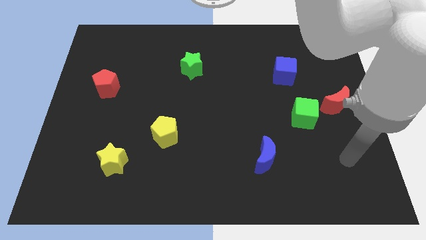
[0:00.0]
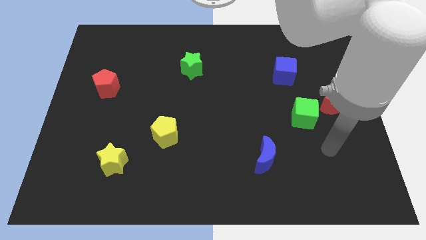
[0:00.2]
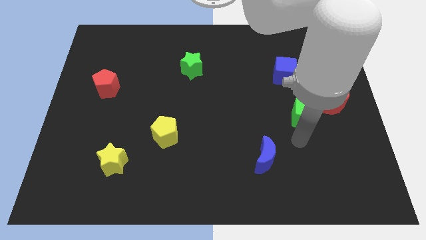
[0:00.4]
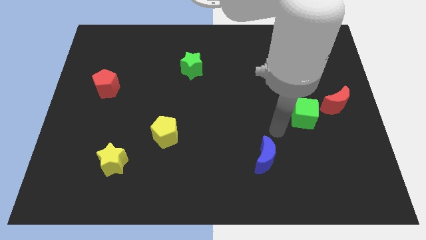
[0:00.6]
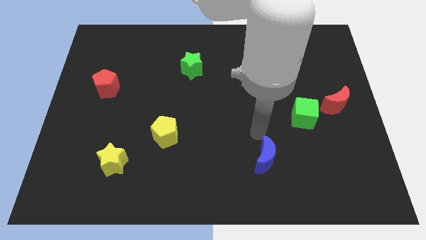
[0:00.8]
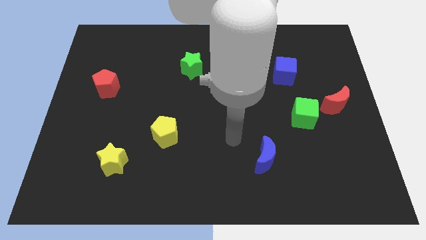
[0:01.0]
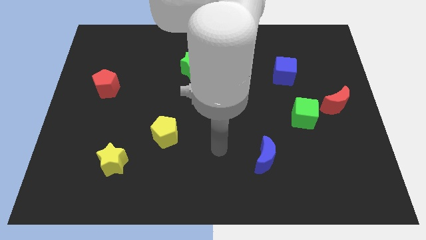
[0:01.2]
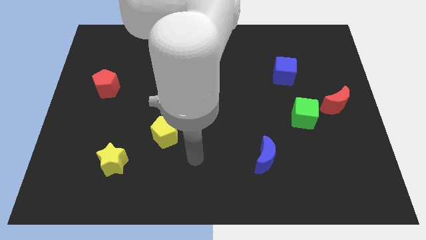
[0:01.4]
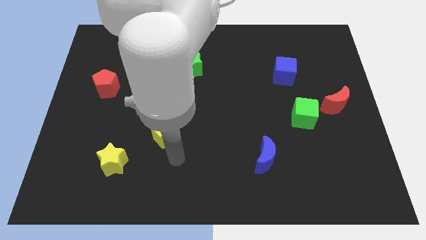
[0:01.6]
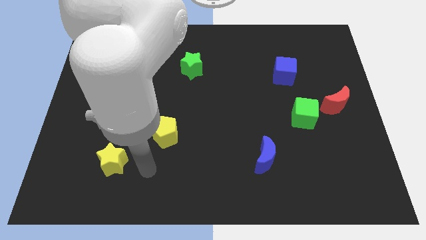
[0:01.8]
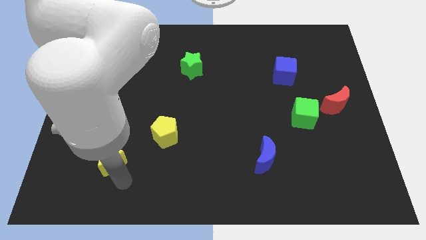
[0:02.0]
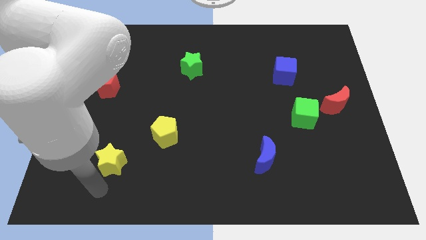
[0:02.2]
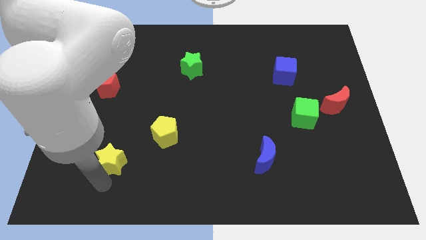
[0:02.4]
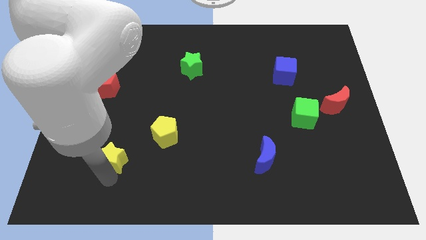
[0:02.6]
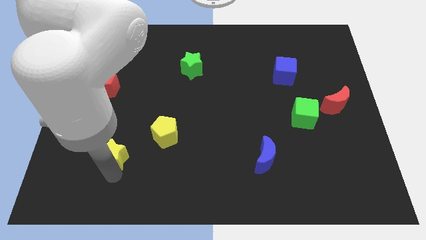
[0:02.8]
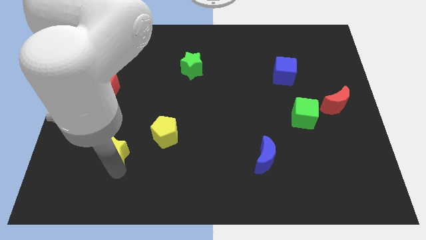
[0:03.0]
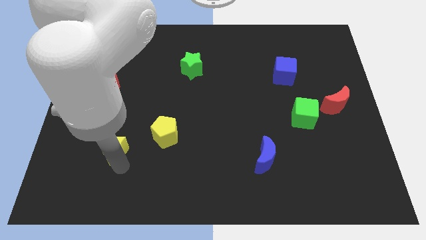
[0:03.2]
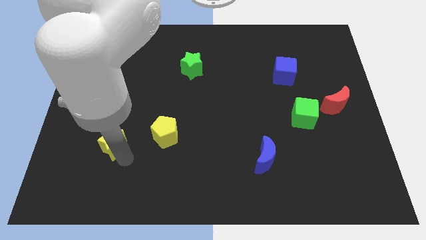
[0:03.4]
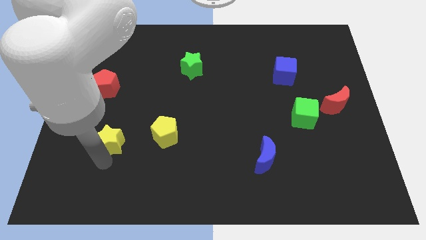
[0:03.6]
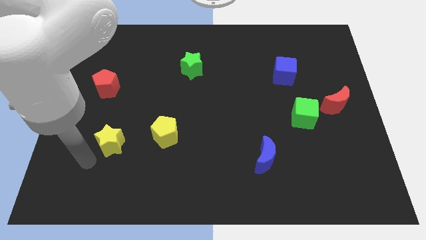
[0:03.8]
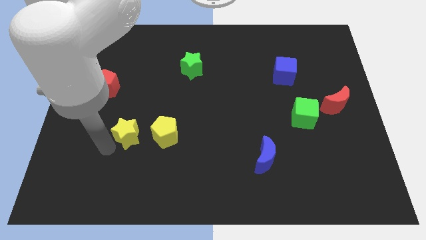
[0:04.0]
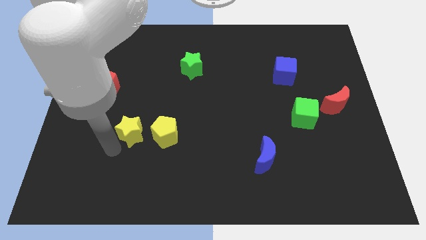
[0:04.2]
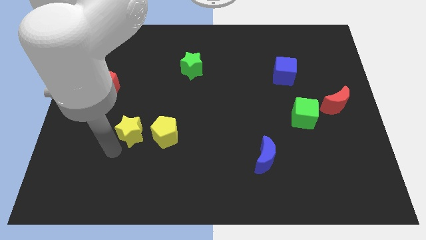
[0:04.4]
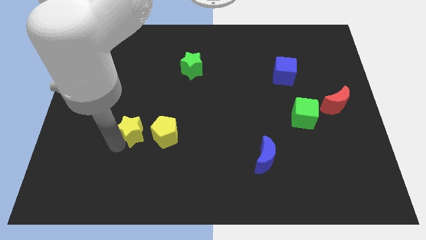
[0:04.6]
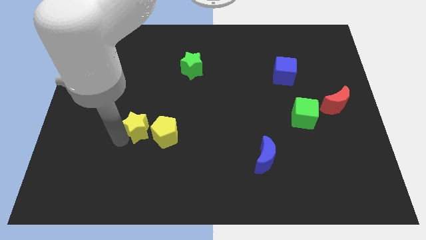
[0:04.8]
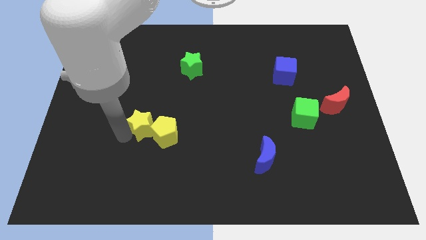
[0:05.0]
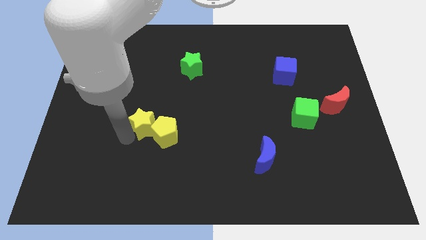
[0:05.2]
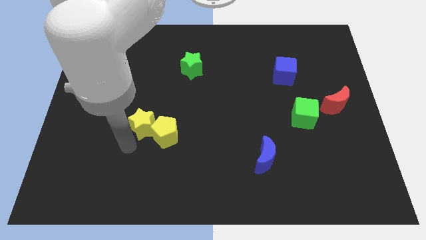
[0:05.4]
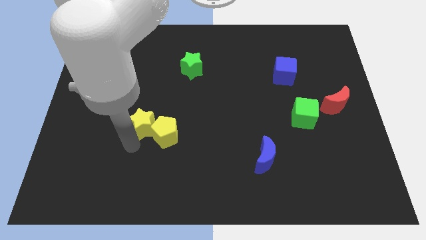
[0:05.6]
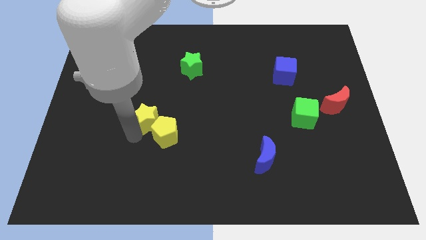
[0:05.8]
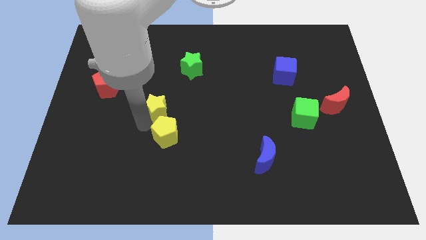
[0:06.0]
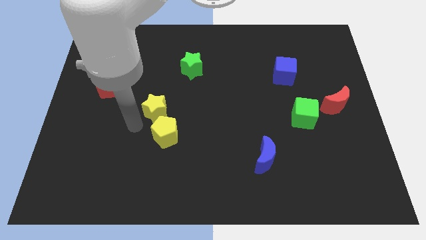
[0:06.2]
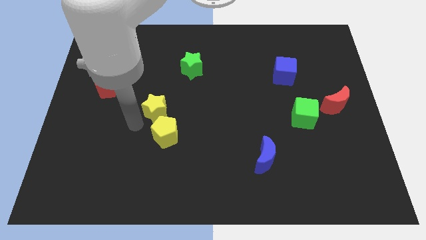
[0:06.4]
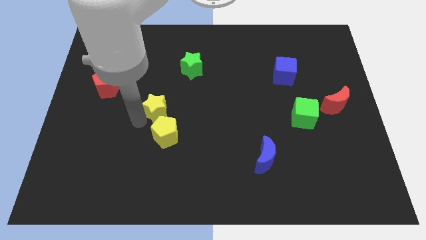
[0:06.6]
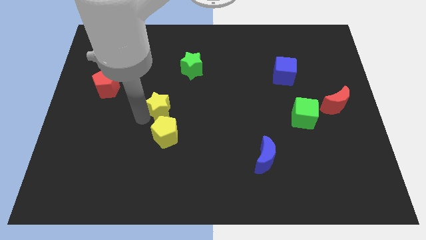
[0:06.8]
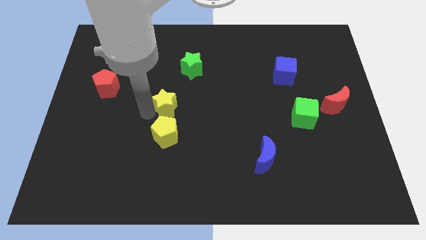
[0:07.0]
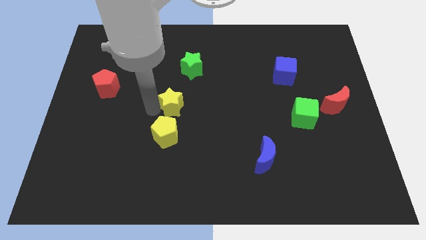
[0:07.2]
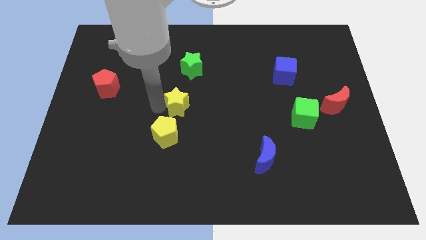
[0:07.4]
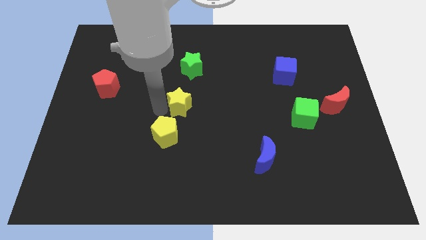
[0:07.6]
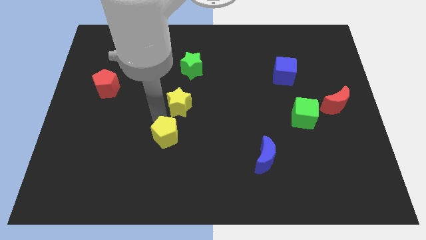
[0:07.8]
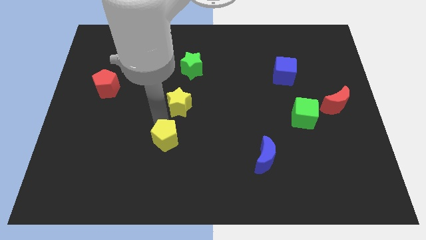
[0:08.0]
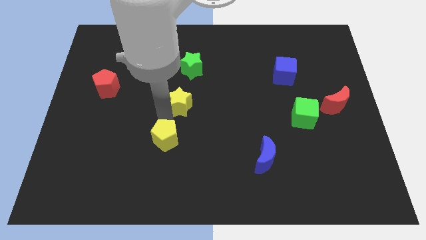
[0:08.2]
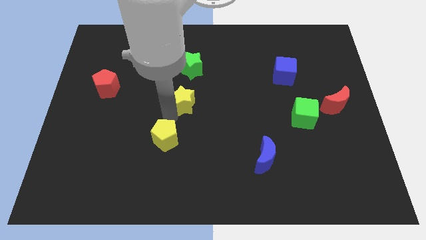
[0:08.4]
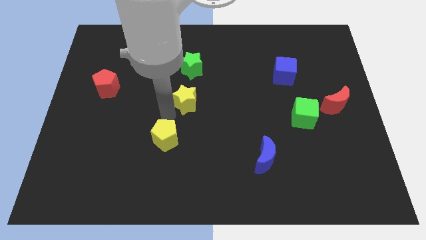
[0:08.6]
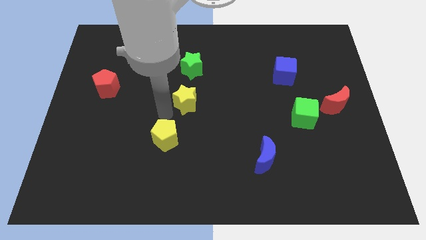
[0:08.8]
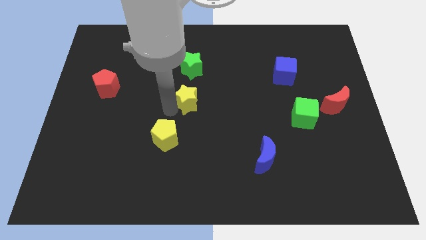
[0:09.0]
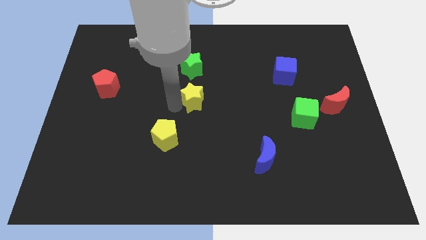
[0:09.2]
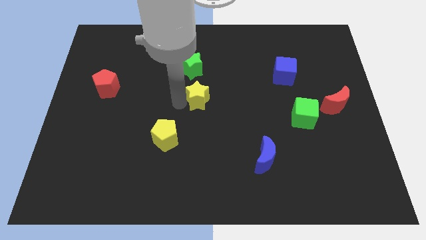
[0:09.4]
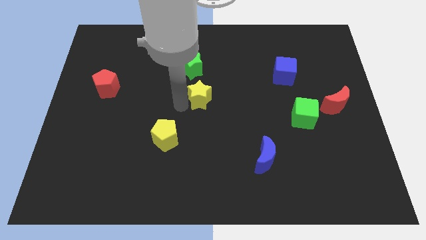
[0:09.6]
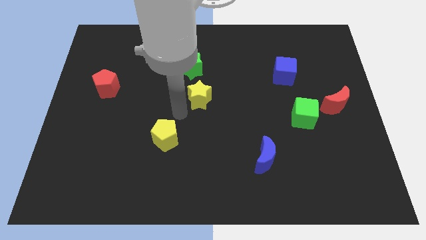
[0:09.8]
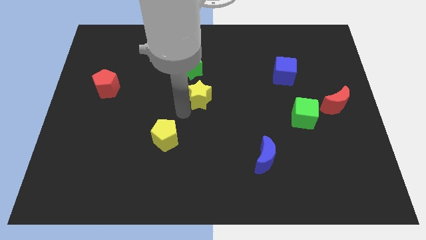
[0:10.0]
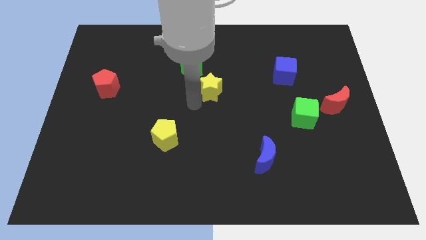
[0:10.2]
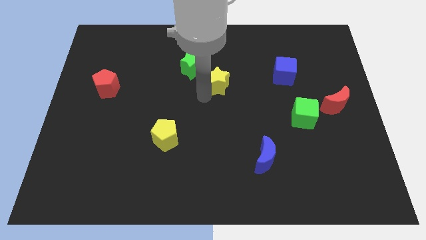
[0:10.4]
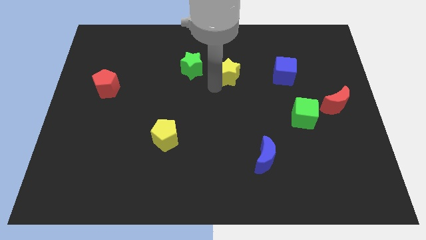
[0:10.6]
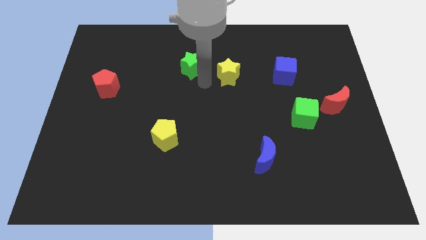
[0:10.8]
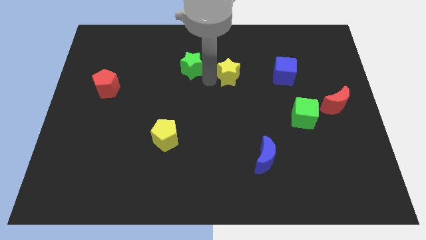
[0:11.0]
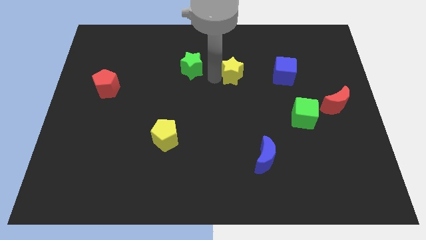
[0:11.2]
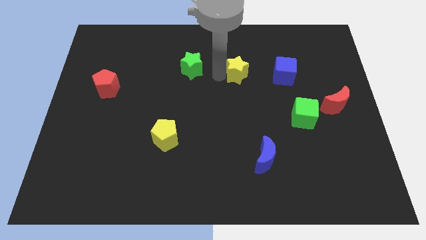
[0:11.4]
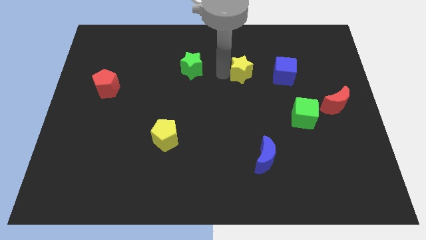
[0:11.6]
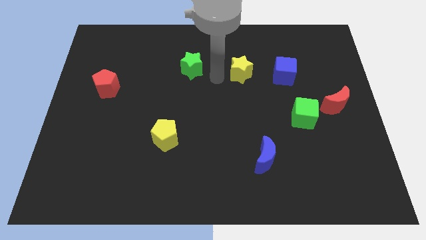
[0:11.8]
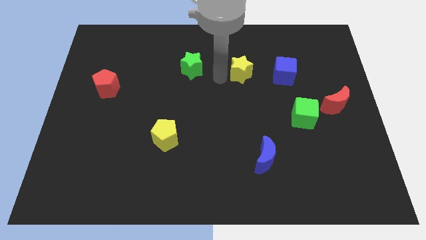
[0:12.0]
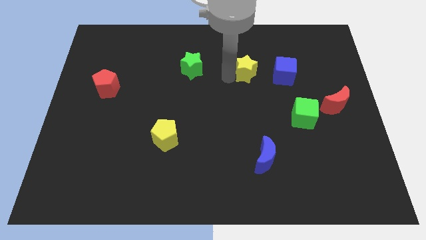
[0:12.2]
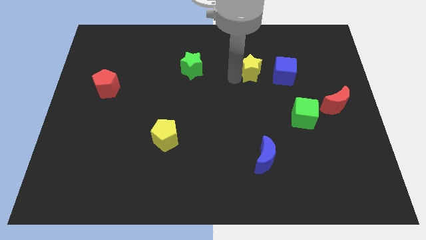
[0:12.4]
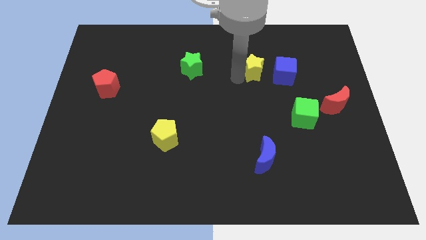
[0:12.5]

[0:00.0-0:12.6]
move the yellow star to the top left side of the blue cube
